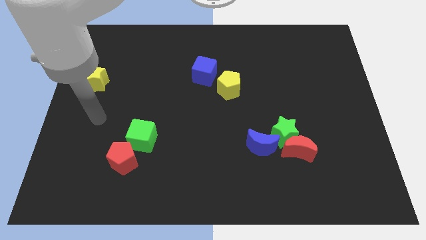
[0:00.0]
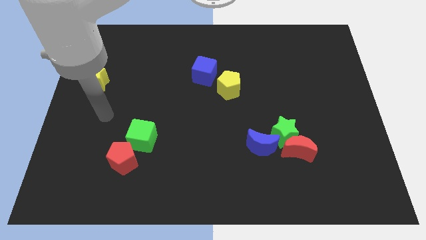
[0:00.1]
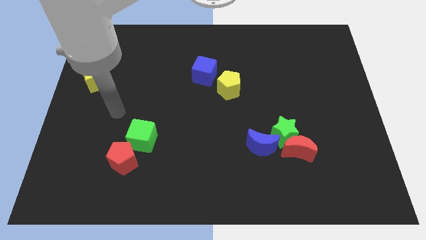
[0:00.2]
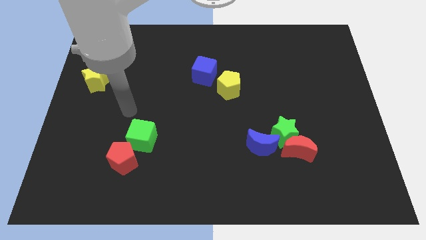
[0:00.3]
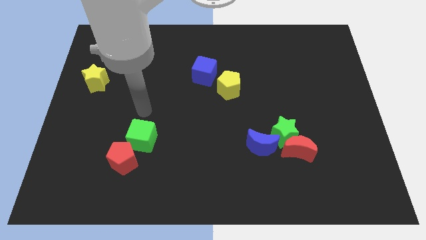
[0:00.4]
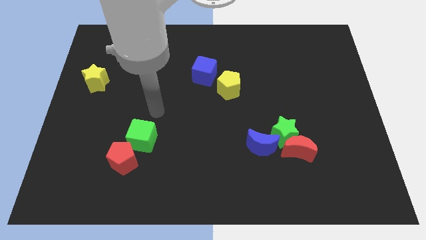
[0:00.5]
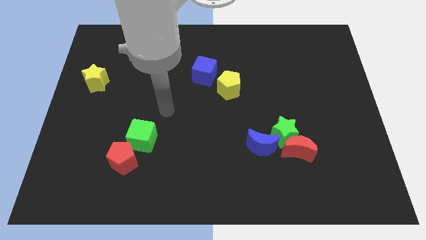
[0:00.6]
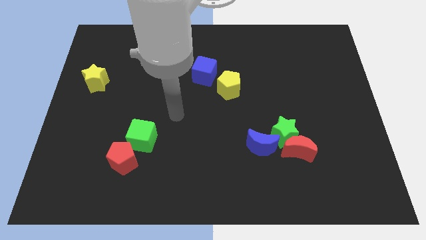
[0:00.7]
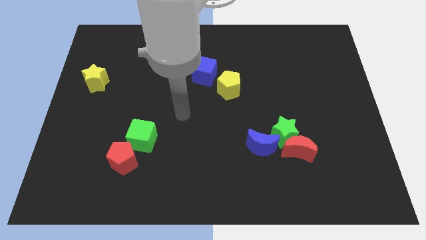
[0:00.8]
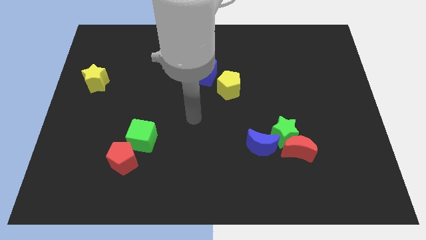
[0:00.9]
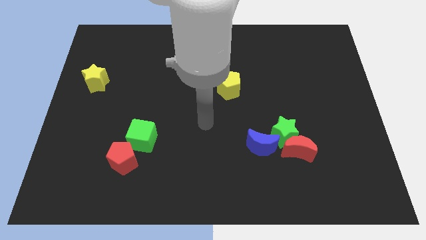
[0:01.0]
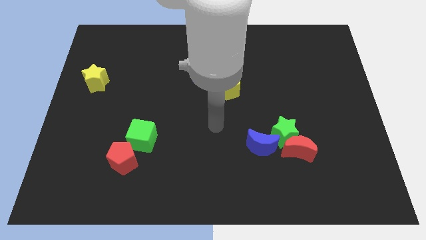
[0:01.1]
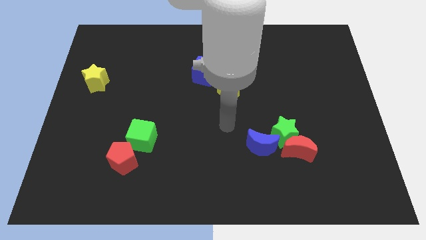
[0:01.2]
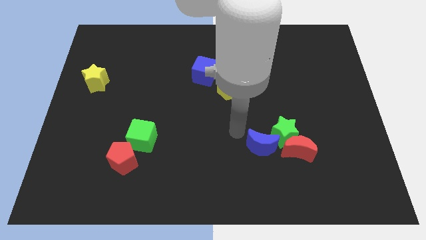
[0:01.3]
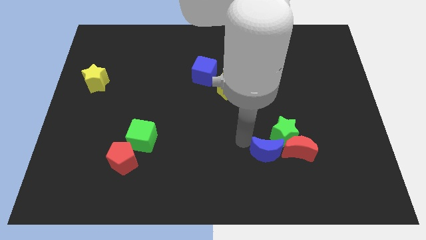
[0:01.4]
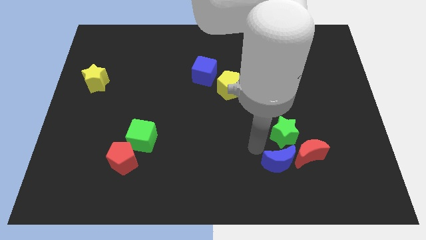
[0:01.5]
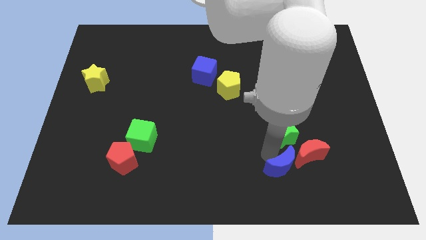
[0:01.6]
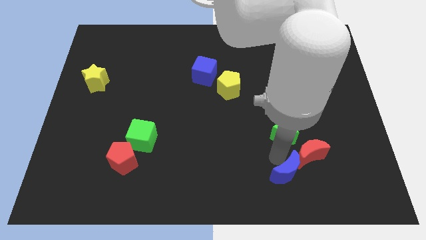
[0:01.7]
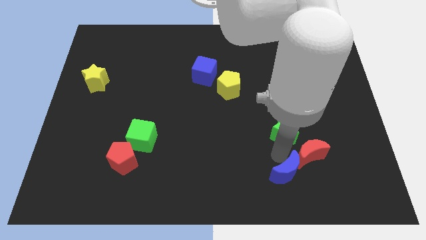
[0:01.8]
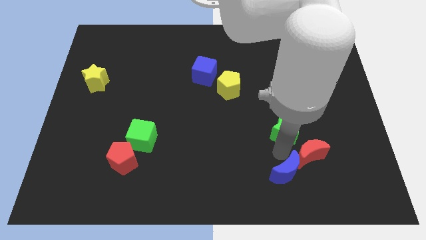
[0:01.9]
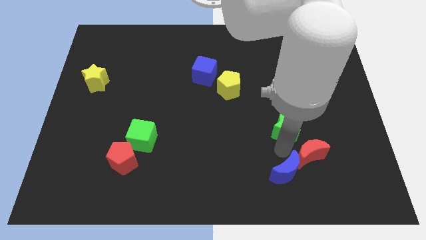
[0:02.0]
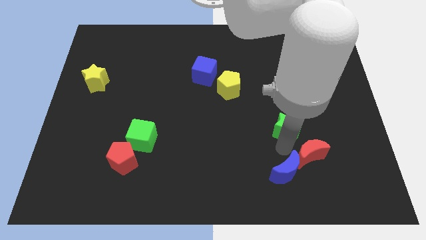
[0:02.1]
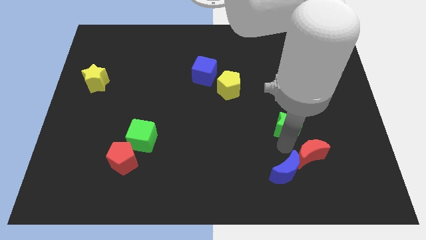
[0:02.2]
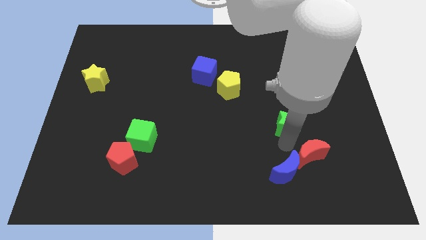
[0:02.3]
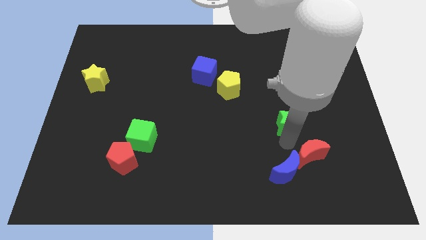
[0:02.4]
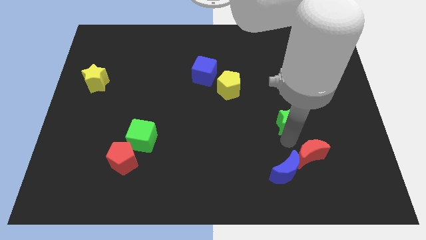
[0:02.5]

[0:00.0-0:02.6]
separate the green star from the red moon and blue moon

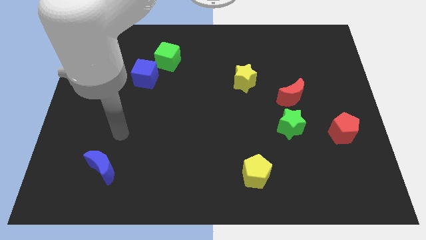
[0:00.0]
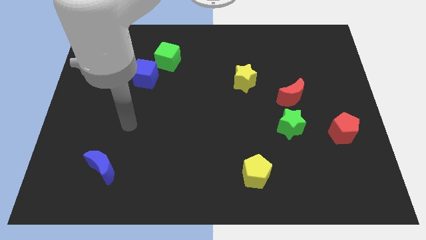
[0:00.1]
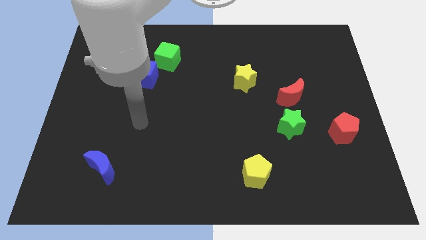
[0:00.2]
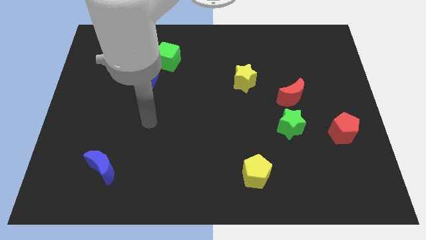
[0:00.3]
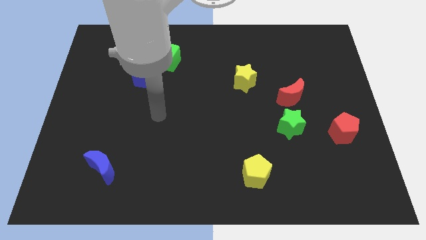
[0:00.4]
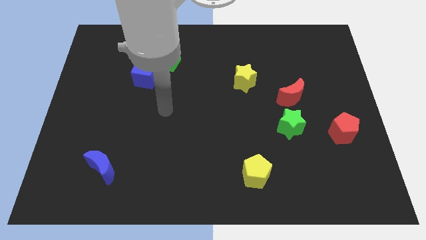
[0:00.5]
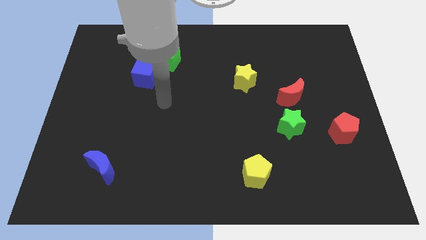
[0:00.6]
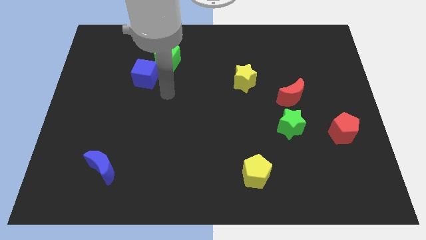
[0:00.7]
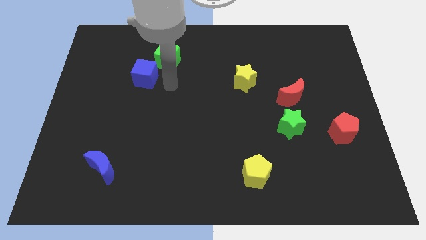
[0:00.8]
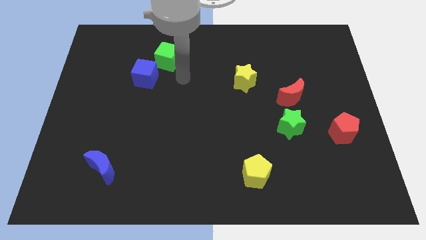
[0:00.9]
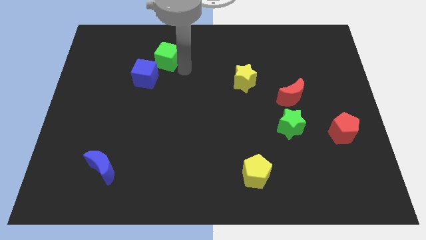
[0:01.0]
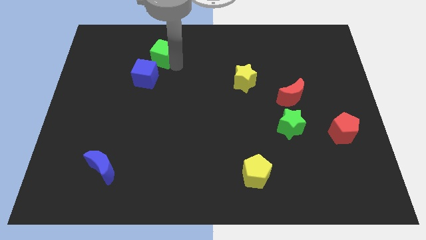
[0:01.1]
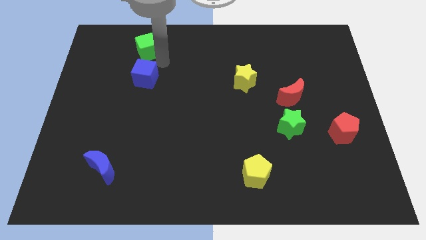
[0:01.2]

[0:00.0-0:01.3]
move the blue cube away from the green cube

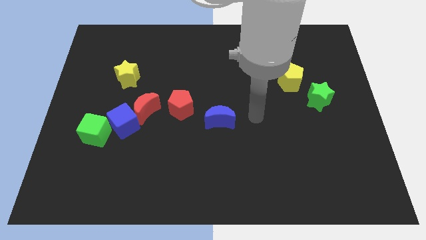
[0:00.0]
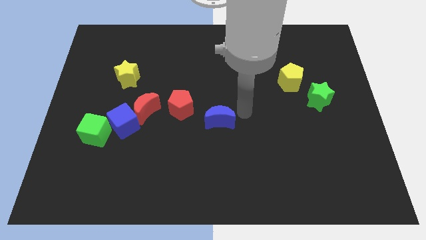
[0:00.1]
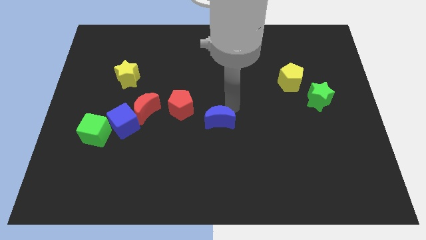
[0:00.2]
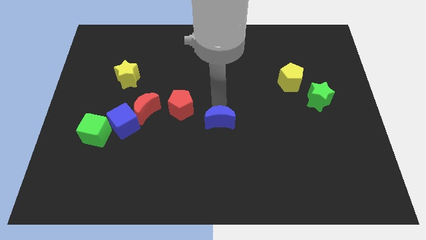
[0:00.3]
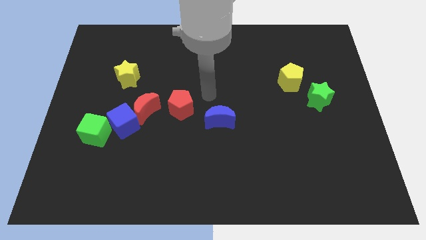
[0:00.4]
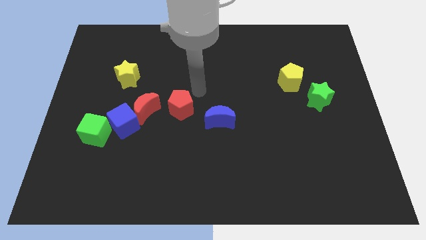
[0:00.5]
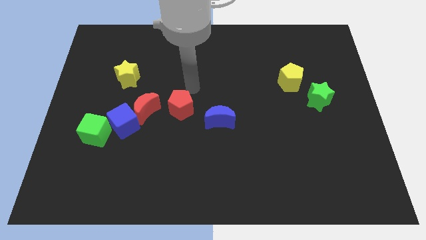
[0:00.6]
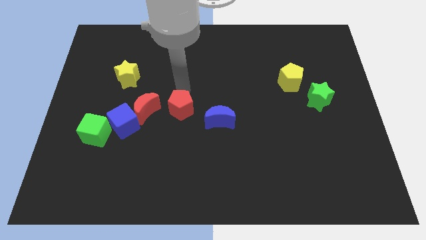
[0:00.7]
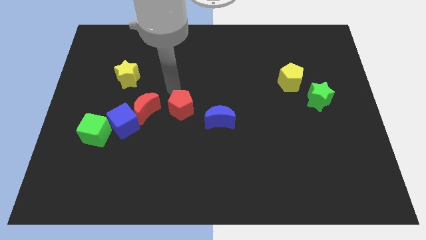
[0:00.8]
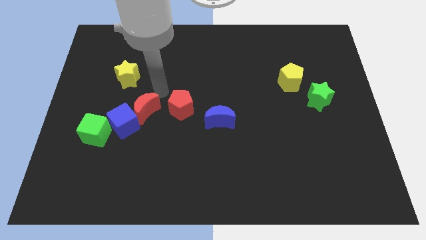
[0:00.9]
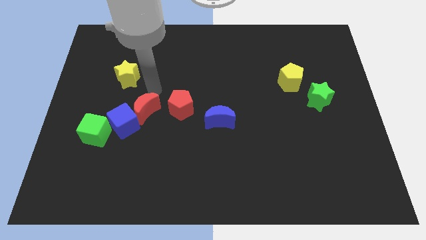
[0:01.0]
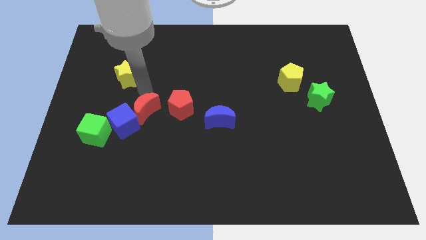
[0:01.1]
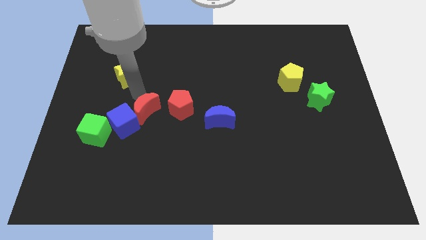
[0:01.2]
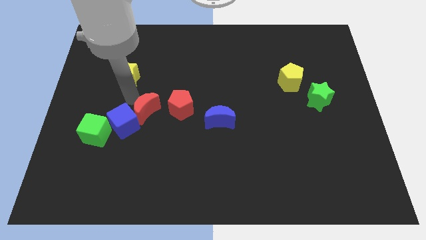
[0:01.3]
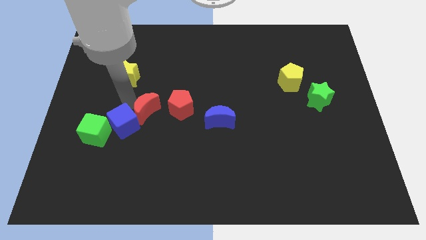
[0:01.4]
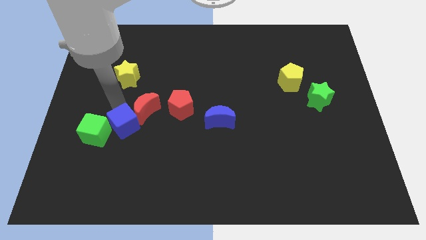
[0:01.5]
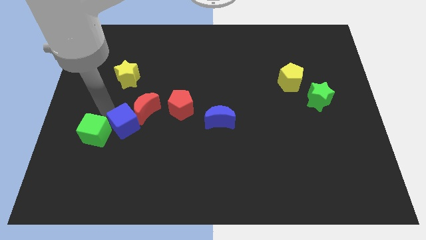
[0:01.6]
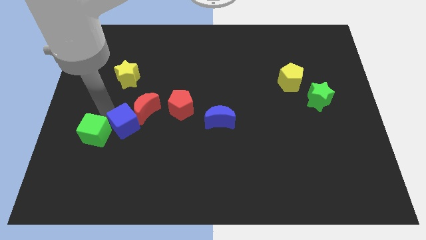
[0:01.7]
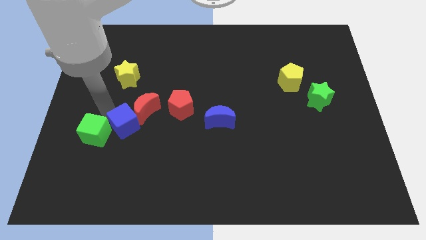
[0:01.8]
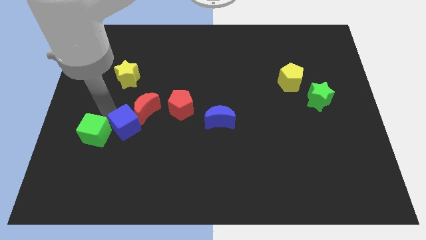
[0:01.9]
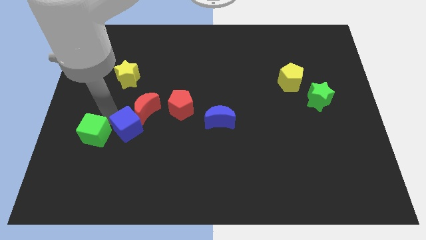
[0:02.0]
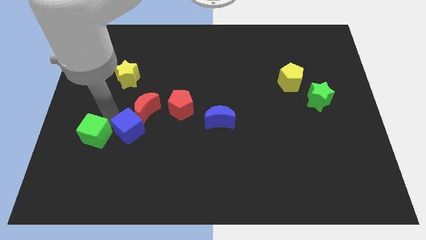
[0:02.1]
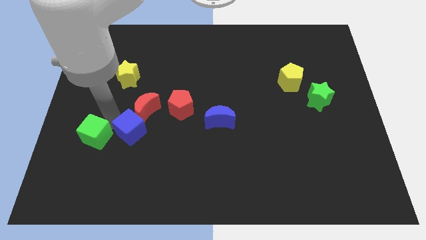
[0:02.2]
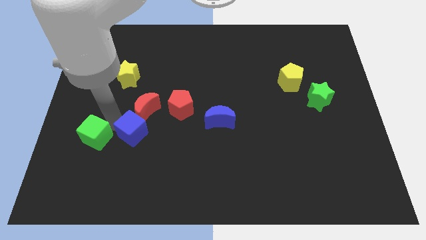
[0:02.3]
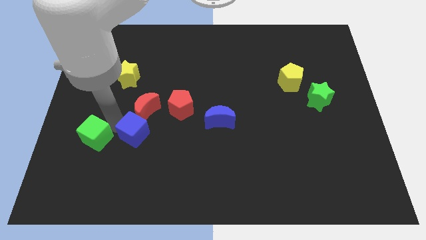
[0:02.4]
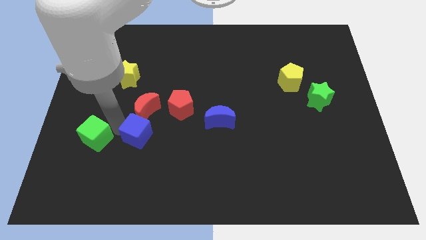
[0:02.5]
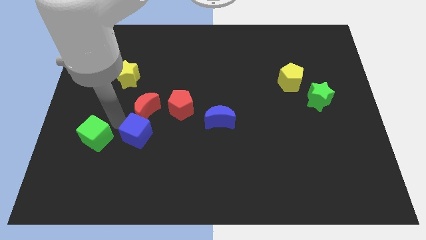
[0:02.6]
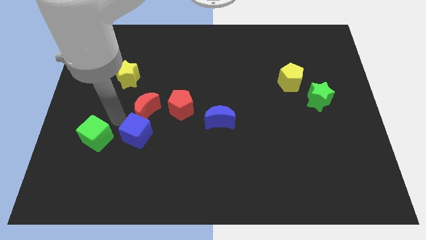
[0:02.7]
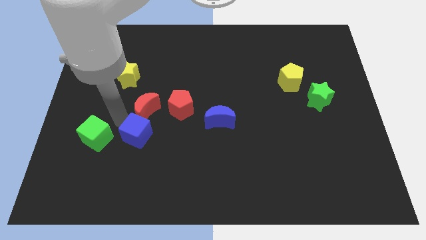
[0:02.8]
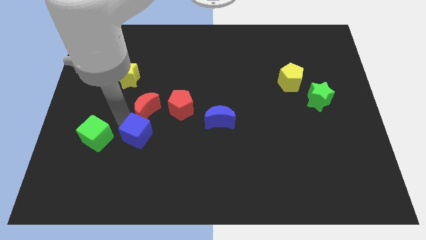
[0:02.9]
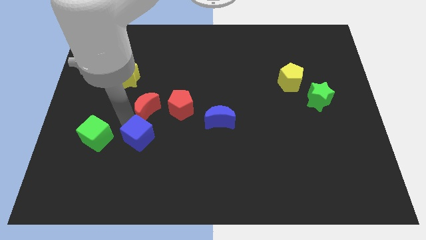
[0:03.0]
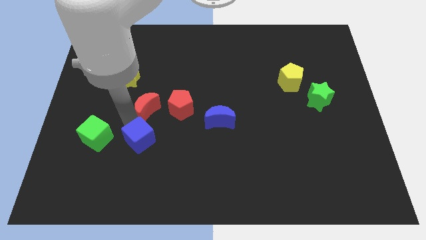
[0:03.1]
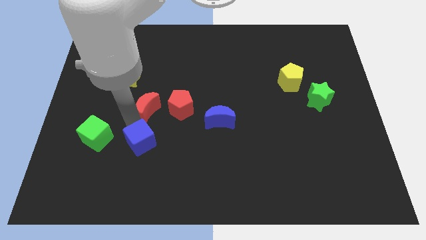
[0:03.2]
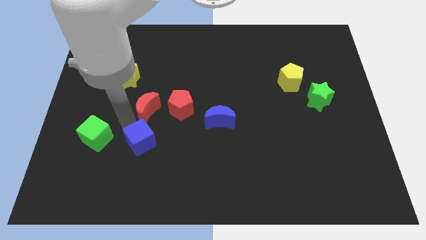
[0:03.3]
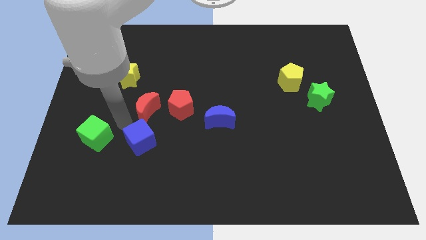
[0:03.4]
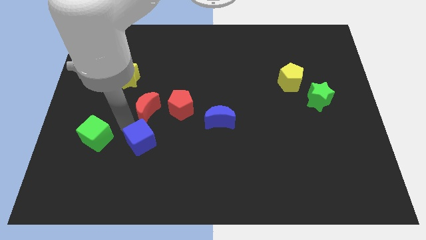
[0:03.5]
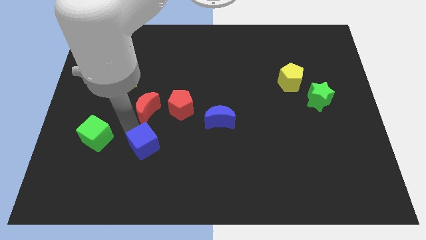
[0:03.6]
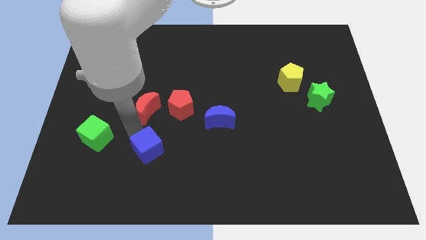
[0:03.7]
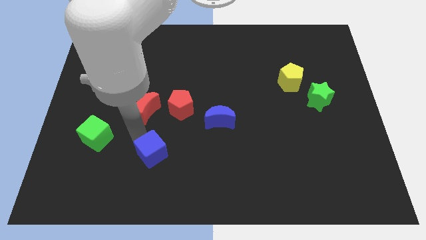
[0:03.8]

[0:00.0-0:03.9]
pull the blue cube apart from the red moon and green cube

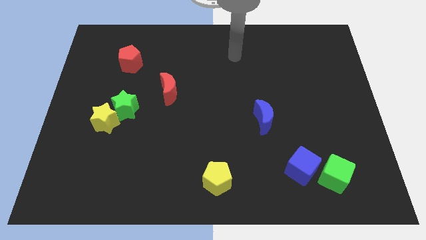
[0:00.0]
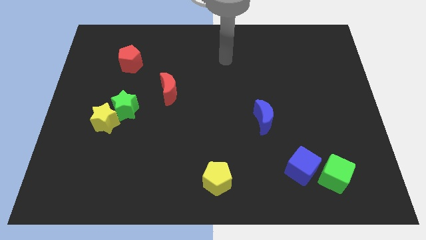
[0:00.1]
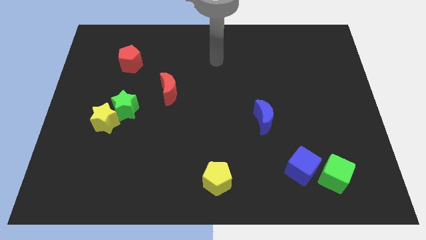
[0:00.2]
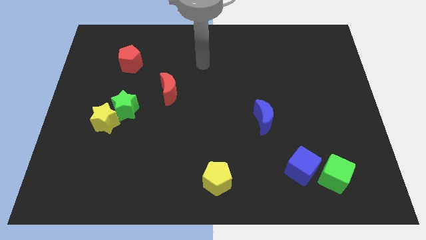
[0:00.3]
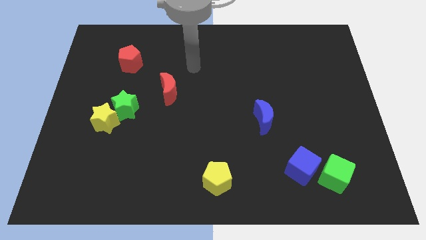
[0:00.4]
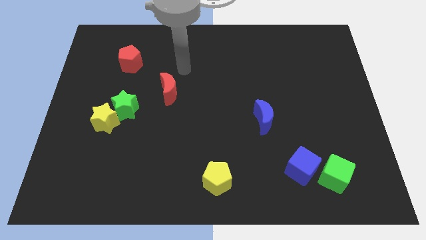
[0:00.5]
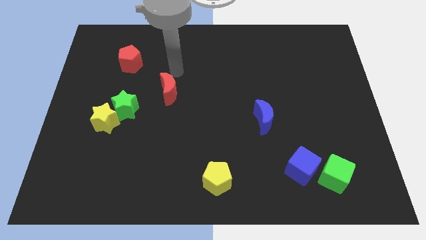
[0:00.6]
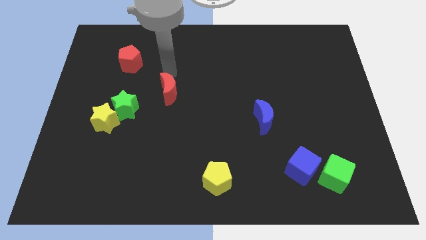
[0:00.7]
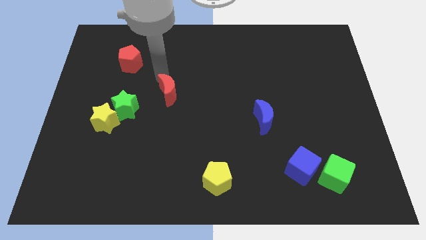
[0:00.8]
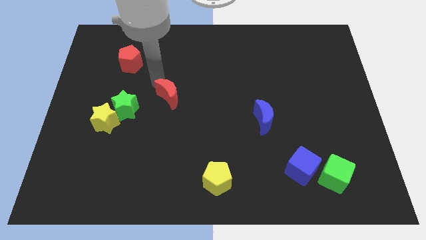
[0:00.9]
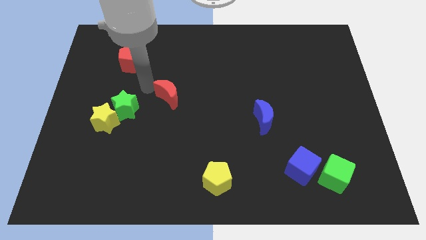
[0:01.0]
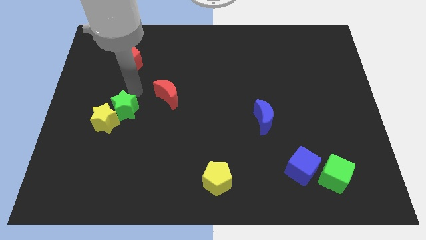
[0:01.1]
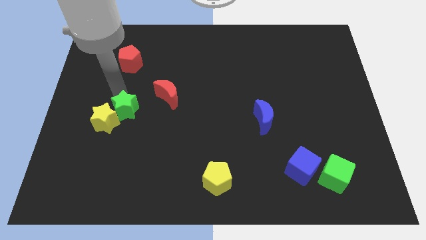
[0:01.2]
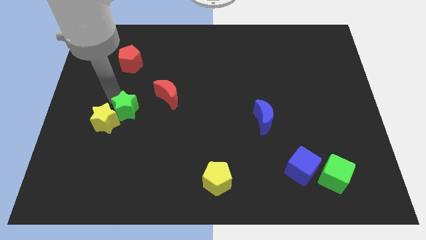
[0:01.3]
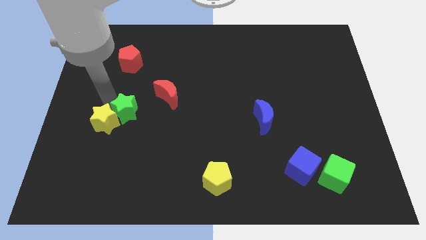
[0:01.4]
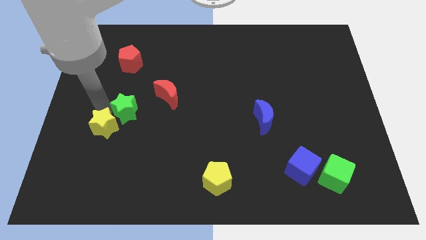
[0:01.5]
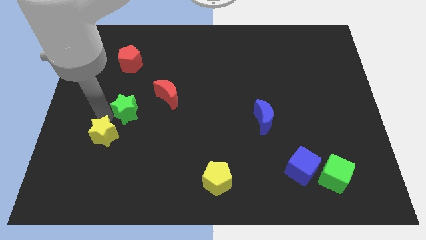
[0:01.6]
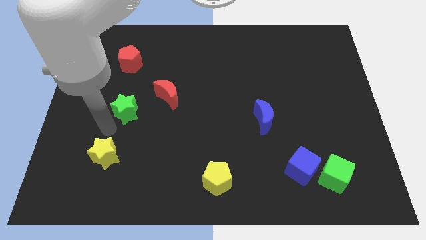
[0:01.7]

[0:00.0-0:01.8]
separate the green star from the yellow star
